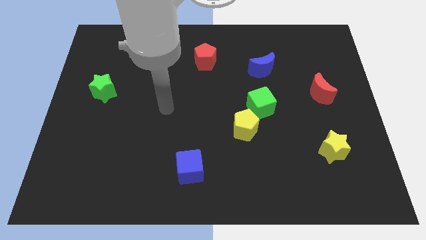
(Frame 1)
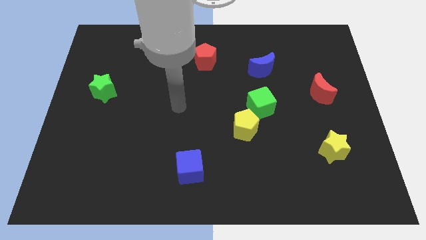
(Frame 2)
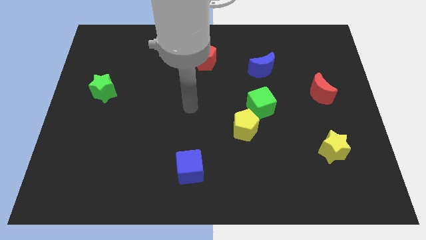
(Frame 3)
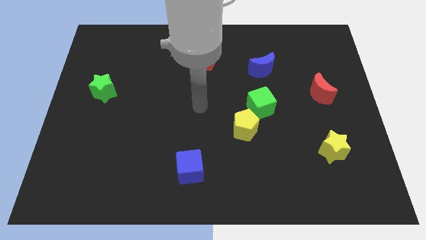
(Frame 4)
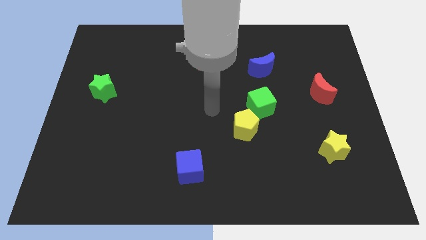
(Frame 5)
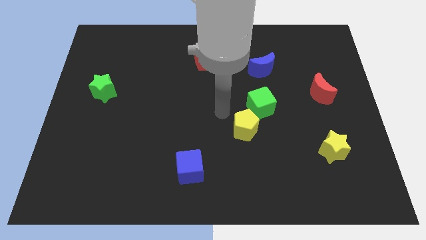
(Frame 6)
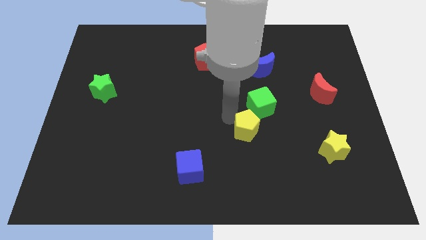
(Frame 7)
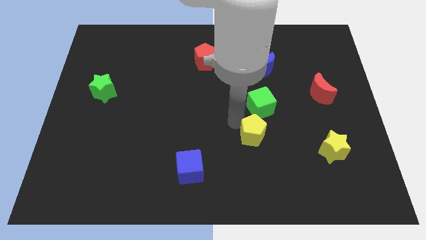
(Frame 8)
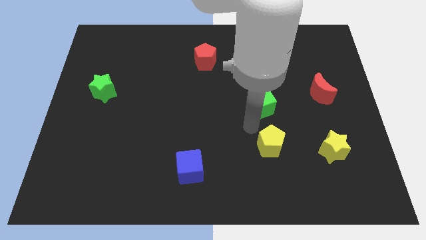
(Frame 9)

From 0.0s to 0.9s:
pull the green cube apart from the yellow pentagon

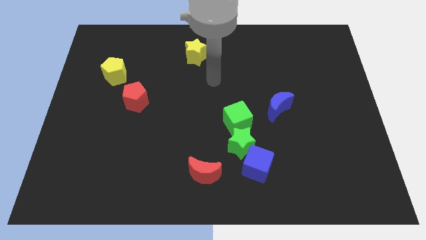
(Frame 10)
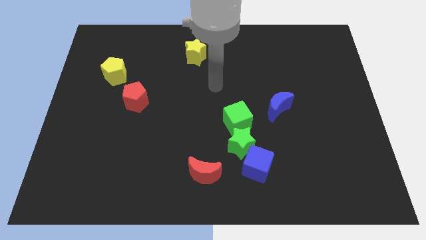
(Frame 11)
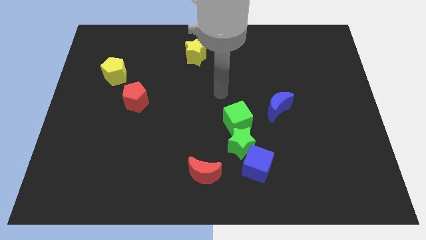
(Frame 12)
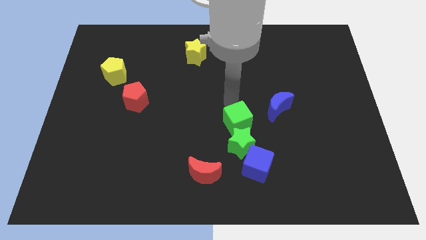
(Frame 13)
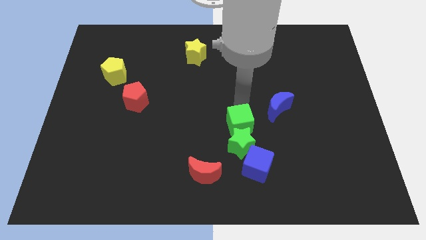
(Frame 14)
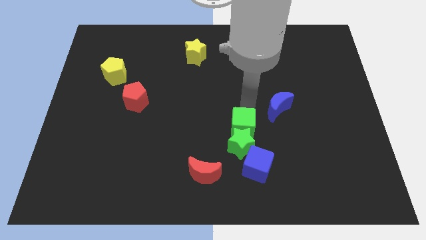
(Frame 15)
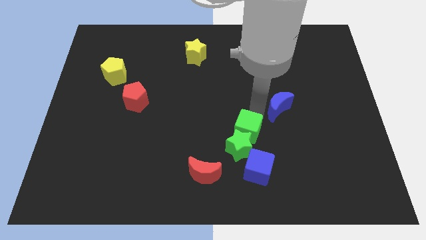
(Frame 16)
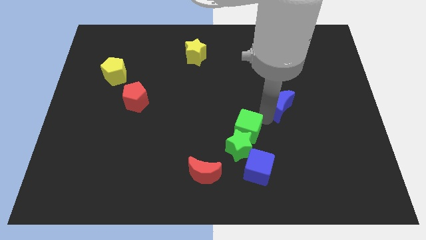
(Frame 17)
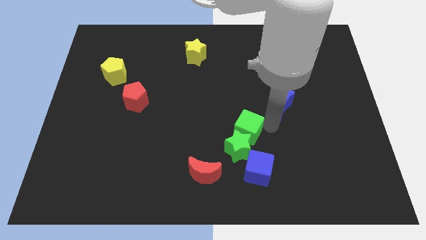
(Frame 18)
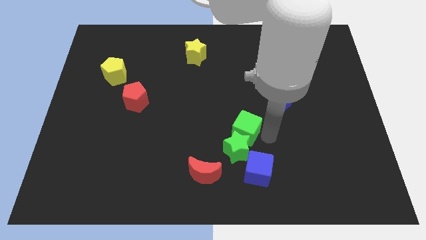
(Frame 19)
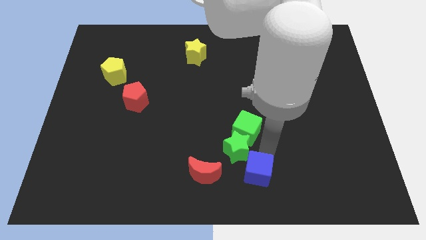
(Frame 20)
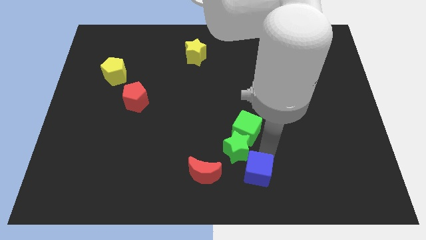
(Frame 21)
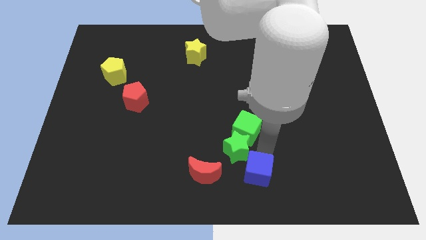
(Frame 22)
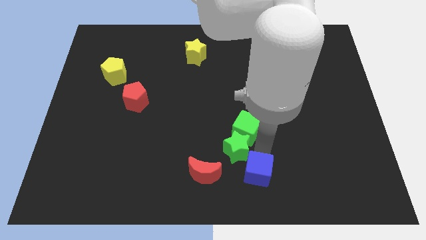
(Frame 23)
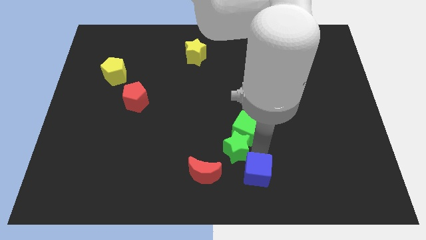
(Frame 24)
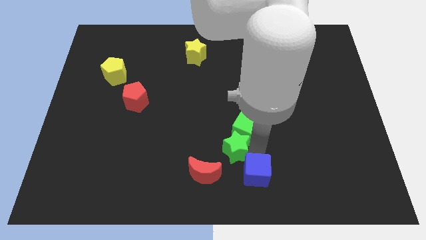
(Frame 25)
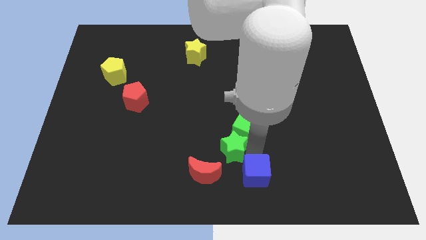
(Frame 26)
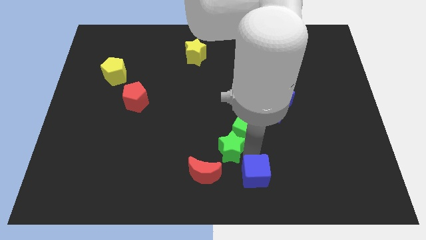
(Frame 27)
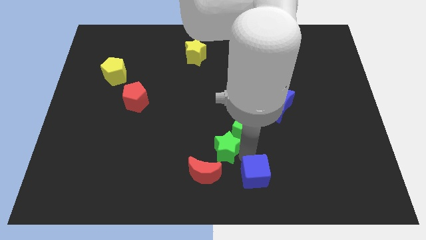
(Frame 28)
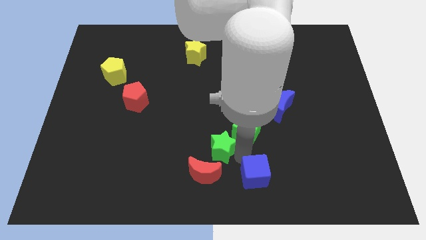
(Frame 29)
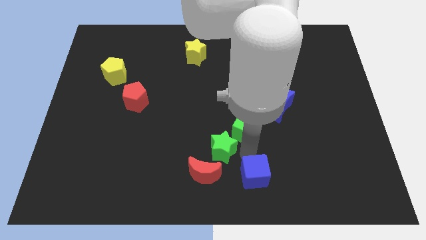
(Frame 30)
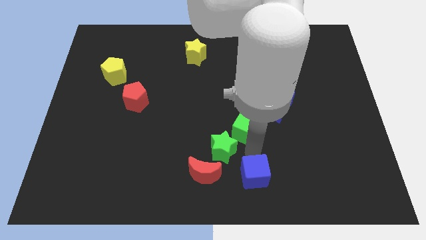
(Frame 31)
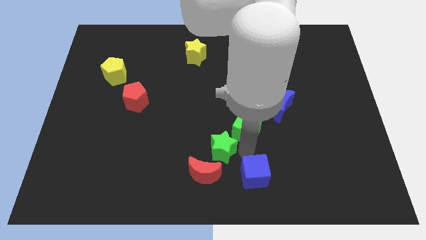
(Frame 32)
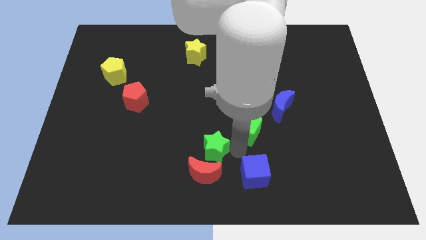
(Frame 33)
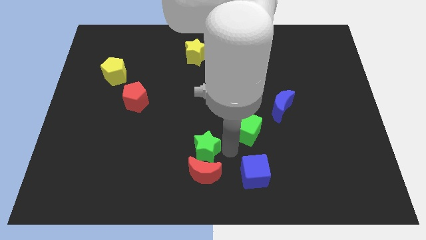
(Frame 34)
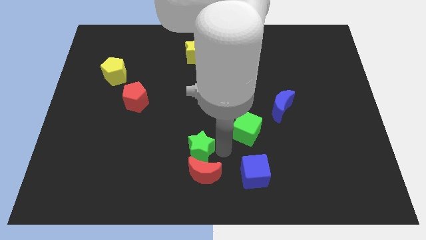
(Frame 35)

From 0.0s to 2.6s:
separate the green star from the green cube and blue cube

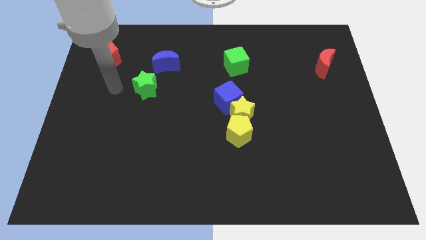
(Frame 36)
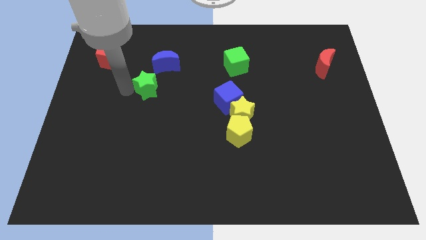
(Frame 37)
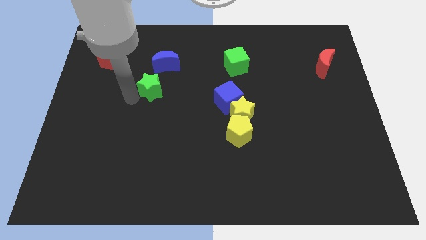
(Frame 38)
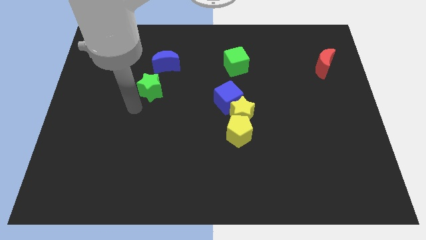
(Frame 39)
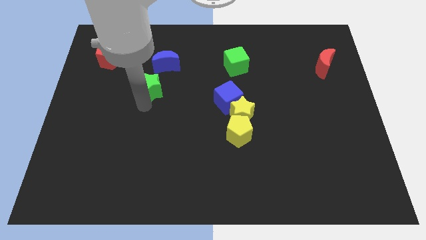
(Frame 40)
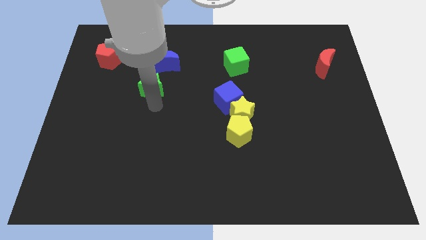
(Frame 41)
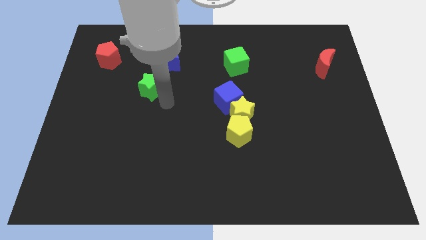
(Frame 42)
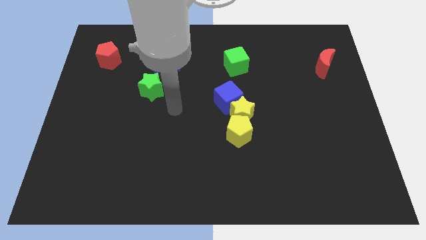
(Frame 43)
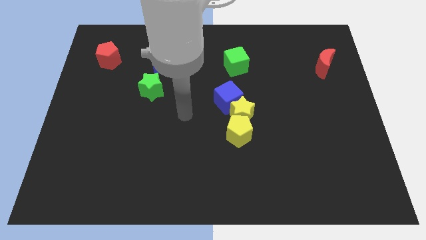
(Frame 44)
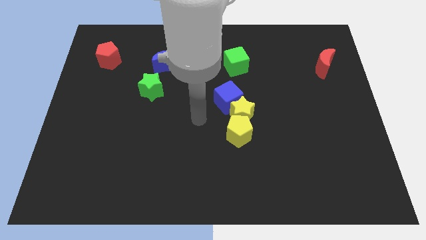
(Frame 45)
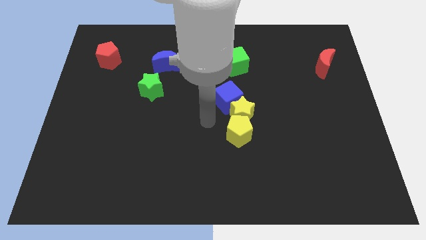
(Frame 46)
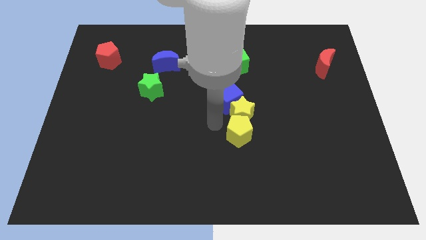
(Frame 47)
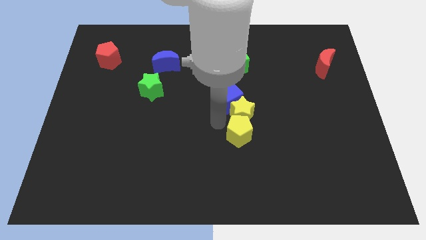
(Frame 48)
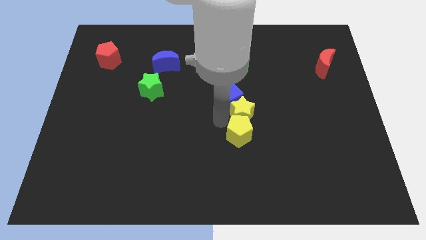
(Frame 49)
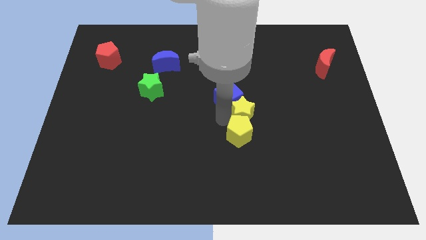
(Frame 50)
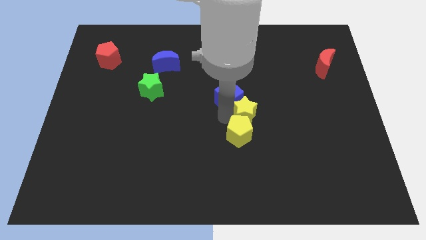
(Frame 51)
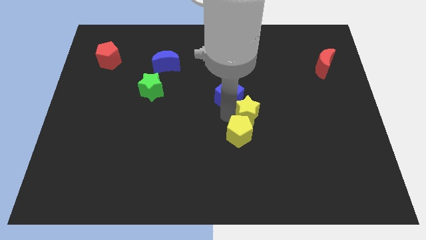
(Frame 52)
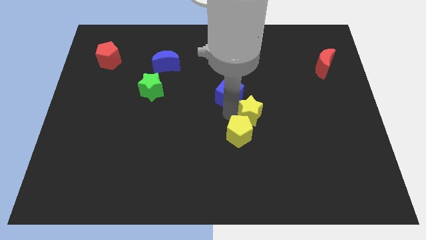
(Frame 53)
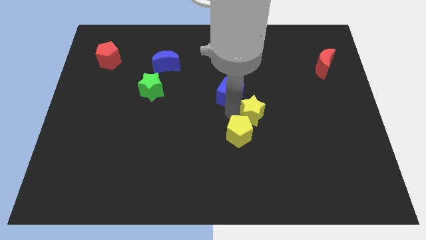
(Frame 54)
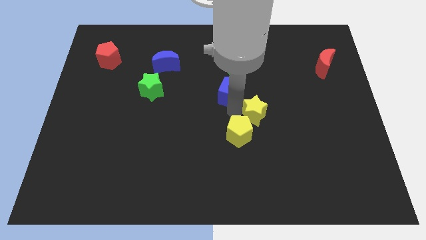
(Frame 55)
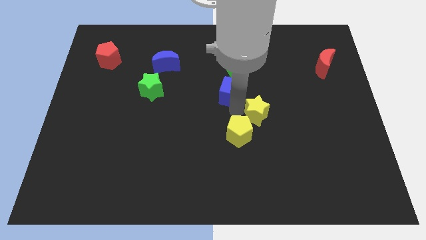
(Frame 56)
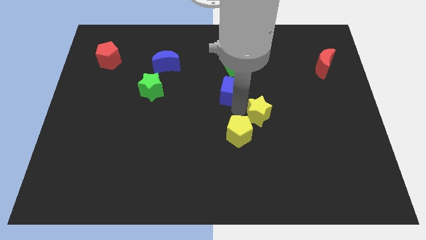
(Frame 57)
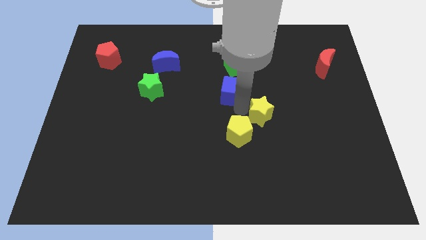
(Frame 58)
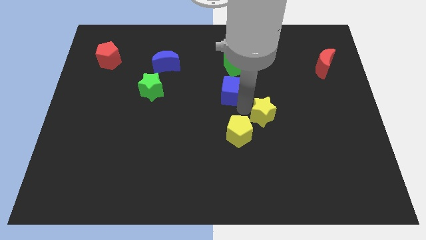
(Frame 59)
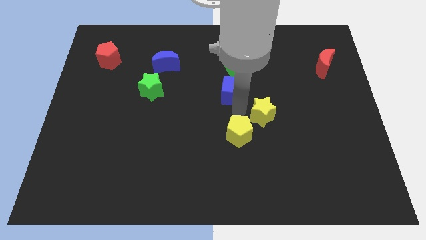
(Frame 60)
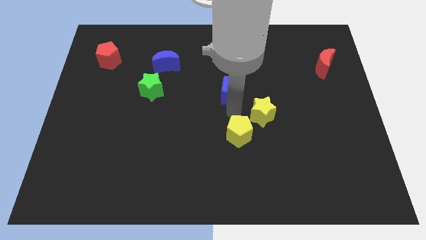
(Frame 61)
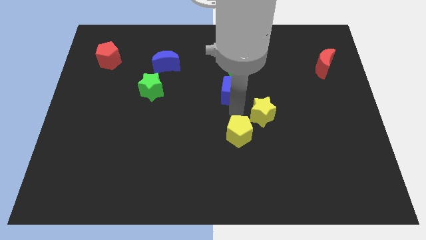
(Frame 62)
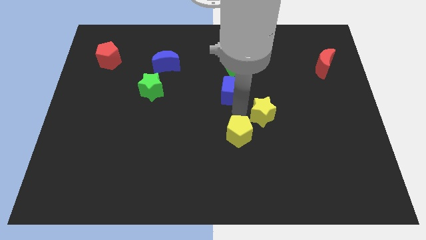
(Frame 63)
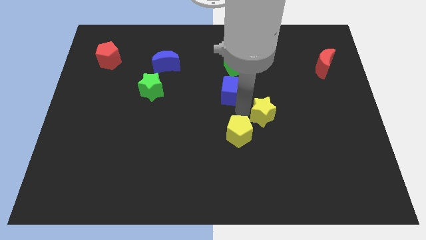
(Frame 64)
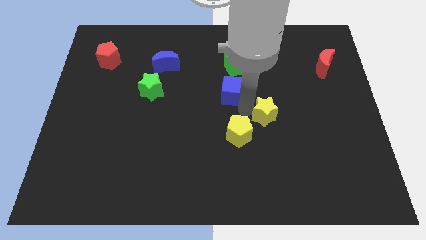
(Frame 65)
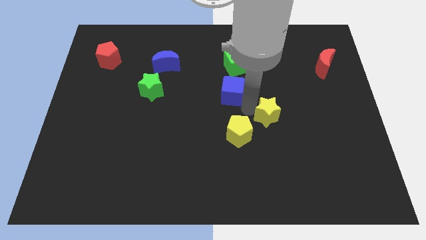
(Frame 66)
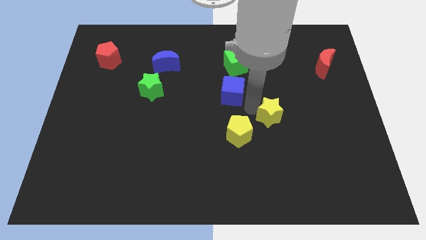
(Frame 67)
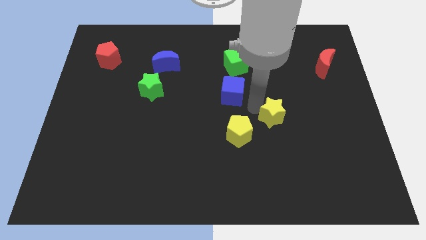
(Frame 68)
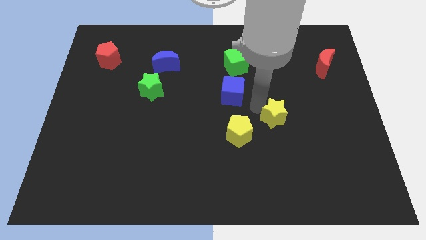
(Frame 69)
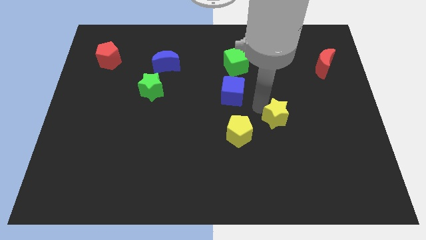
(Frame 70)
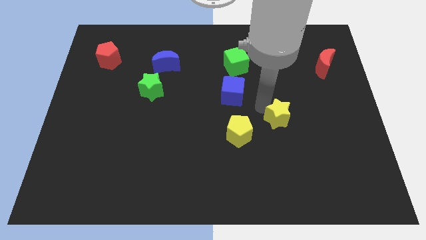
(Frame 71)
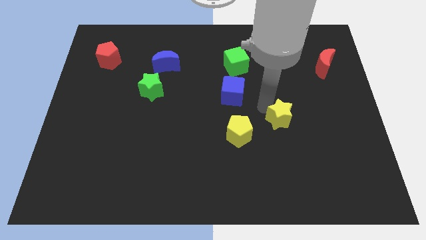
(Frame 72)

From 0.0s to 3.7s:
separate the yellow star from the blue cube and yellow pentagon

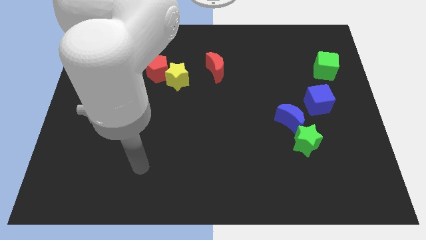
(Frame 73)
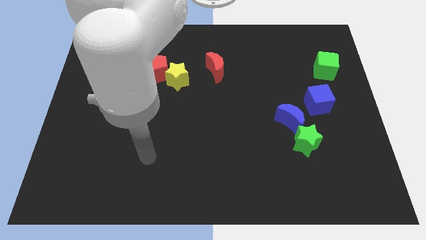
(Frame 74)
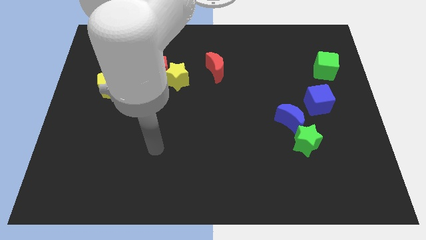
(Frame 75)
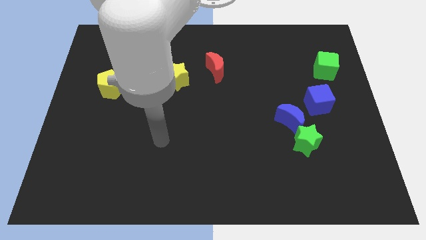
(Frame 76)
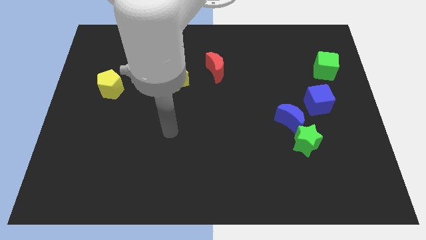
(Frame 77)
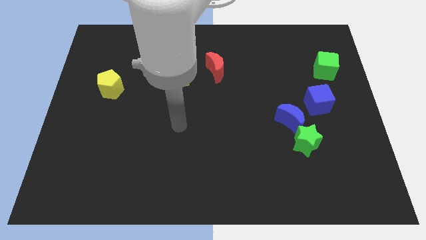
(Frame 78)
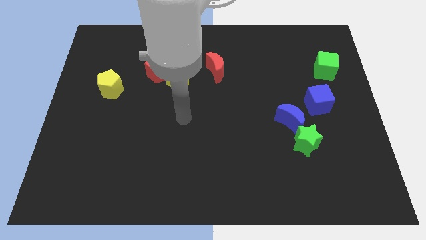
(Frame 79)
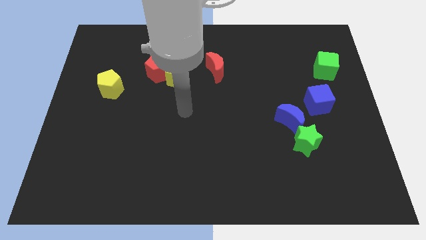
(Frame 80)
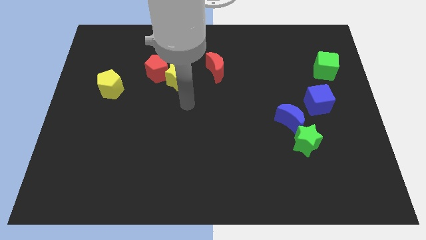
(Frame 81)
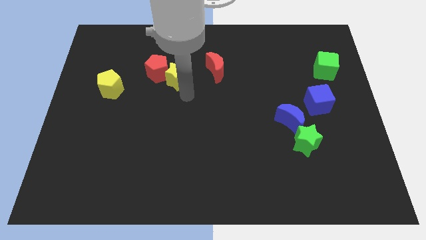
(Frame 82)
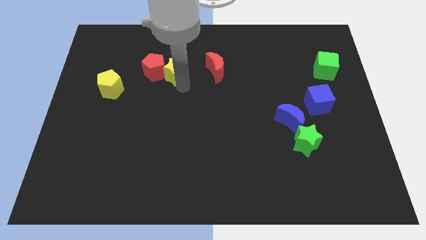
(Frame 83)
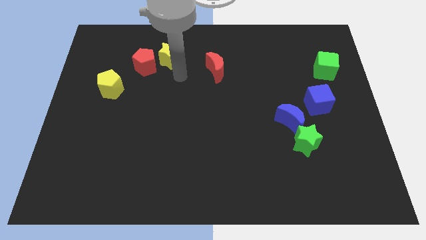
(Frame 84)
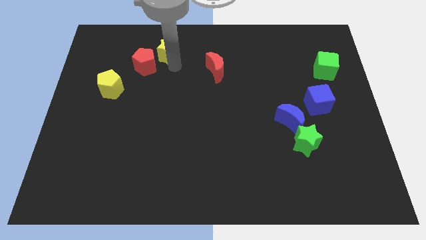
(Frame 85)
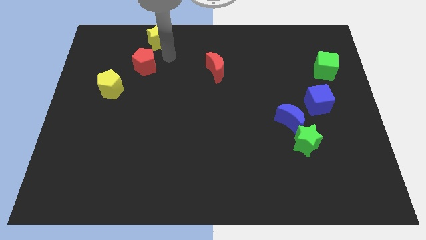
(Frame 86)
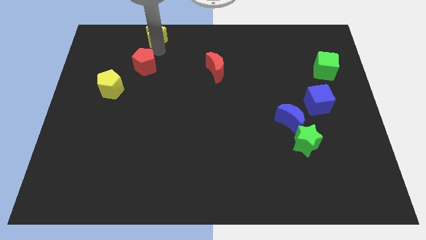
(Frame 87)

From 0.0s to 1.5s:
pull the red pentagon apart from the yellow star

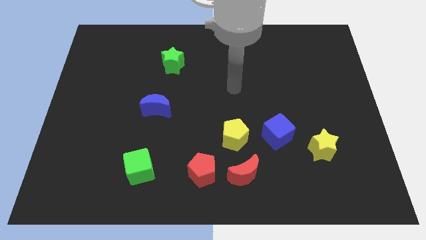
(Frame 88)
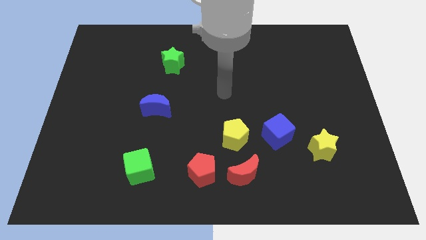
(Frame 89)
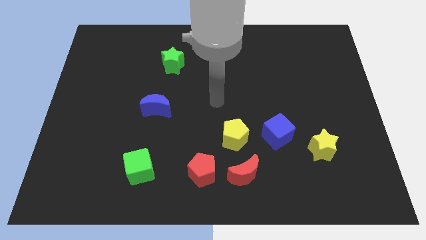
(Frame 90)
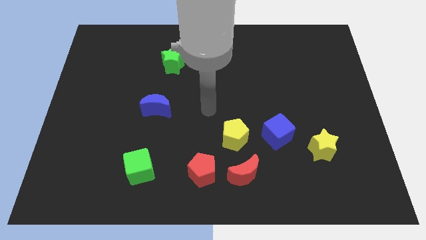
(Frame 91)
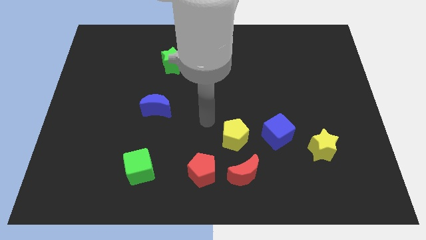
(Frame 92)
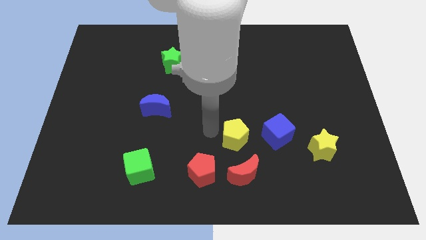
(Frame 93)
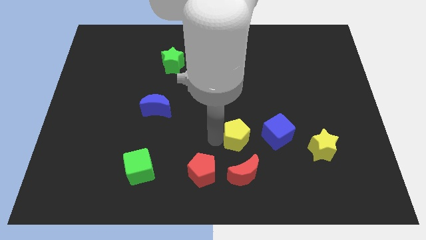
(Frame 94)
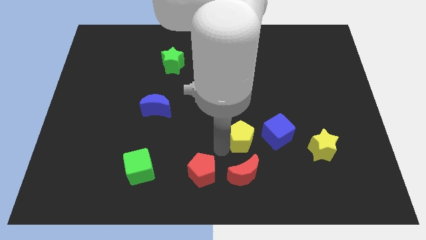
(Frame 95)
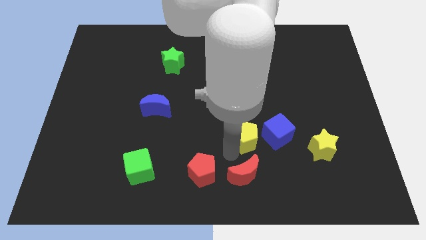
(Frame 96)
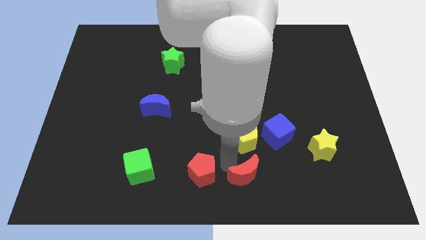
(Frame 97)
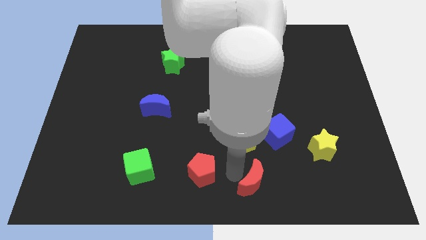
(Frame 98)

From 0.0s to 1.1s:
pull the red pentagon apart from the red moon
